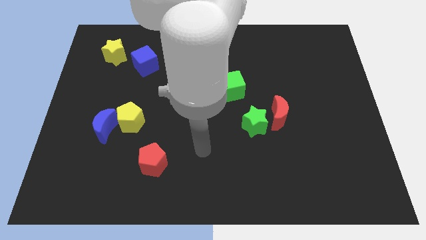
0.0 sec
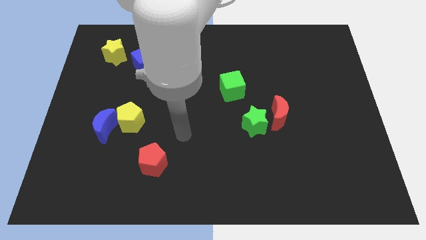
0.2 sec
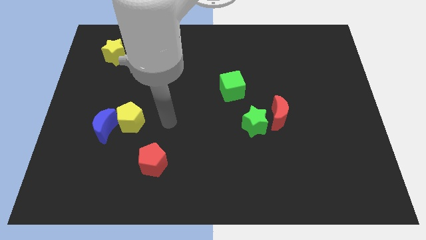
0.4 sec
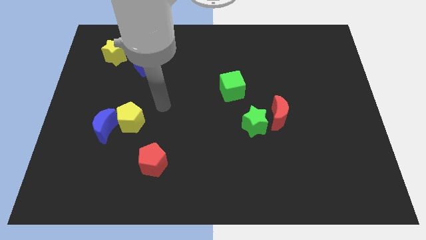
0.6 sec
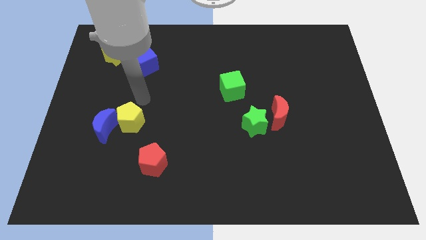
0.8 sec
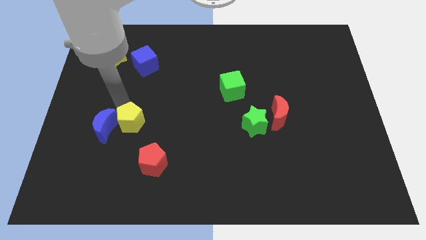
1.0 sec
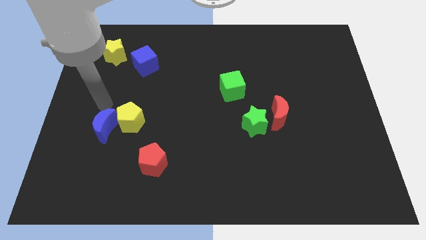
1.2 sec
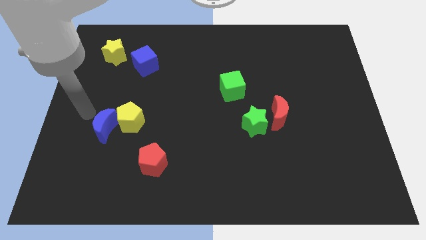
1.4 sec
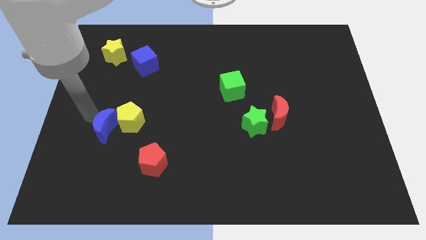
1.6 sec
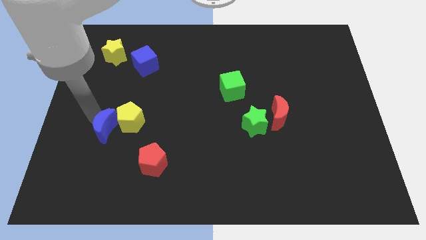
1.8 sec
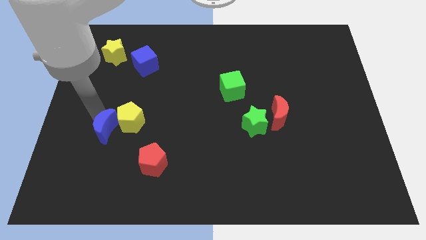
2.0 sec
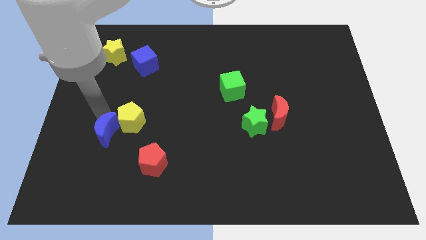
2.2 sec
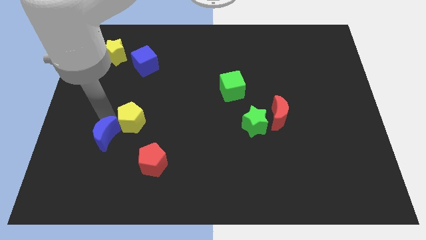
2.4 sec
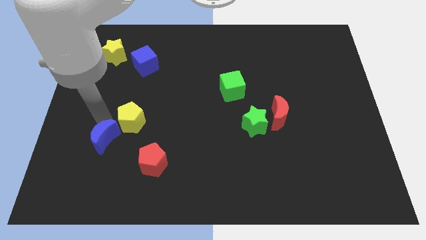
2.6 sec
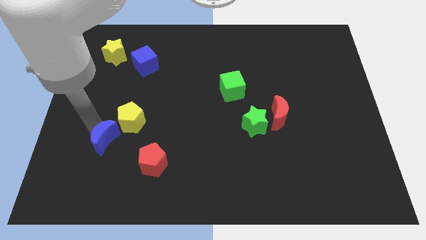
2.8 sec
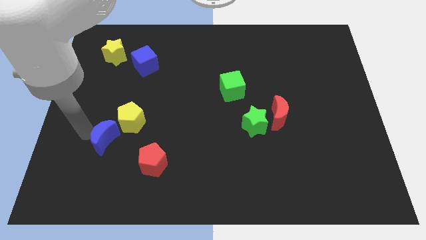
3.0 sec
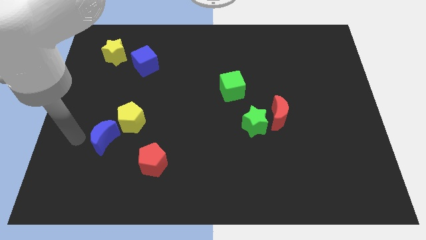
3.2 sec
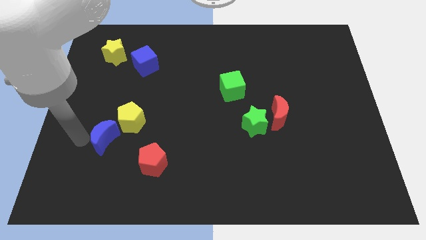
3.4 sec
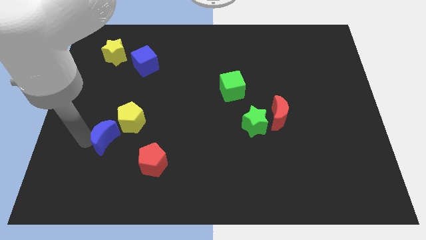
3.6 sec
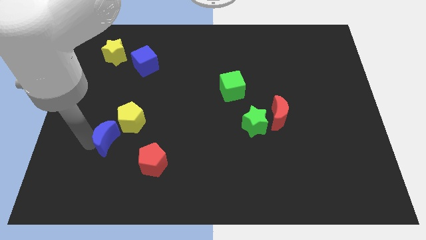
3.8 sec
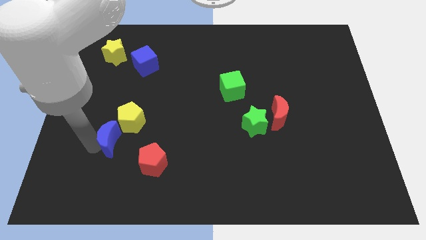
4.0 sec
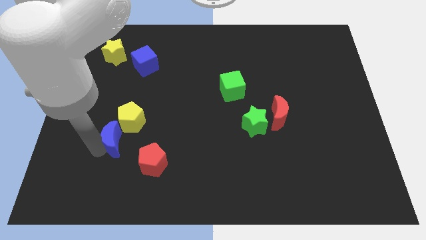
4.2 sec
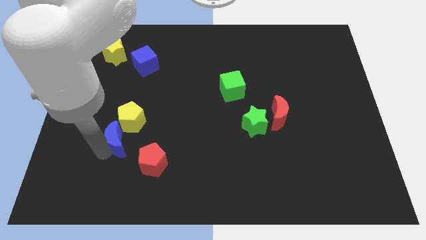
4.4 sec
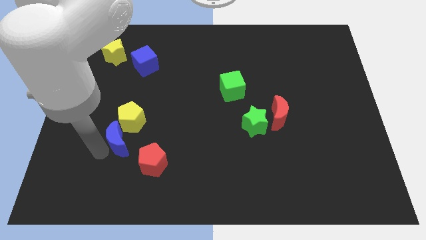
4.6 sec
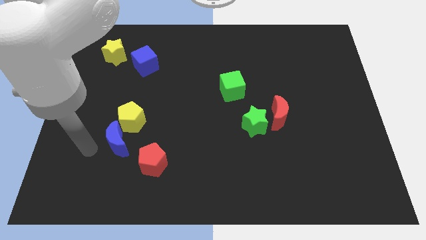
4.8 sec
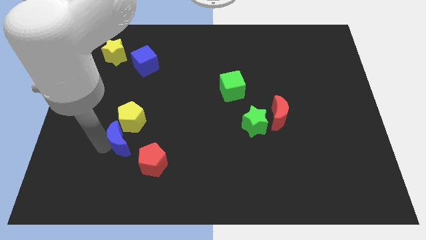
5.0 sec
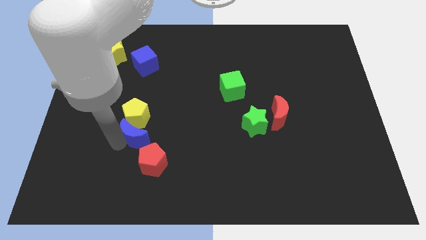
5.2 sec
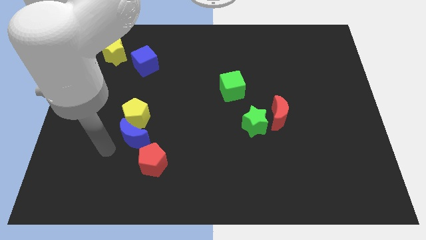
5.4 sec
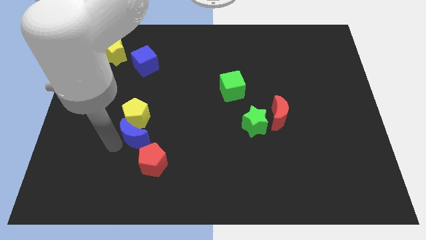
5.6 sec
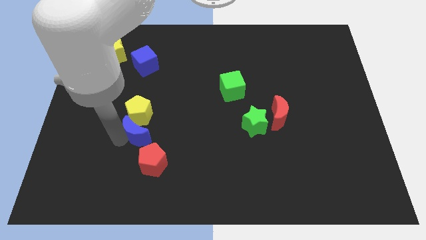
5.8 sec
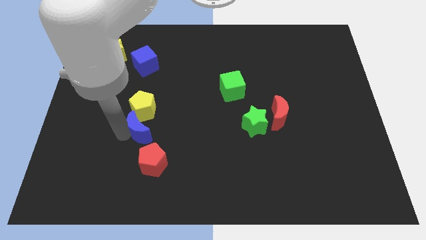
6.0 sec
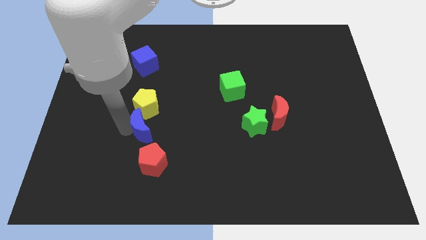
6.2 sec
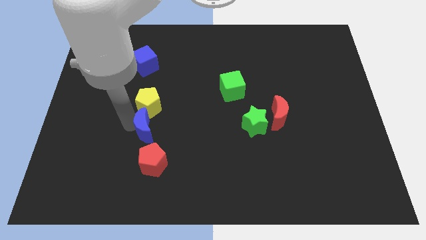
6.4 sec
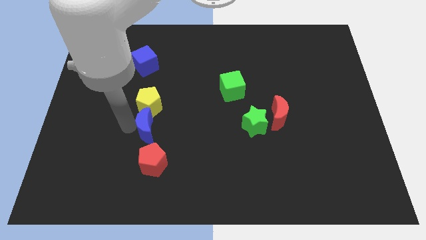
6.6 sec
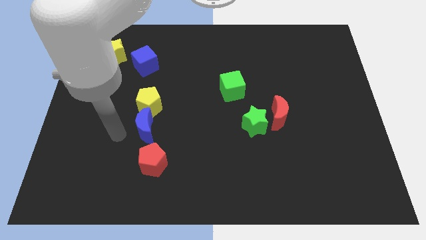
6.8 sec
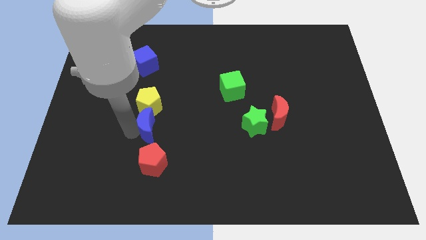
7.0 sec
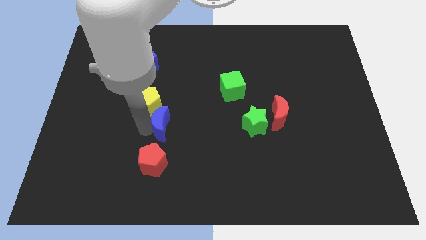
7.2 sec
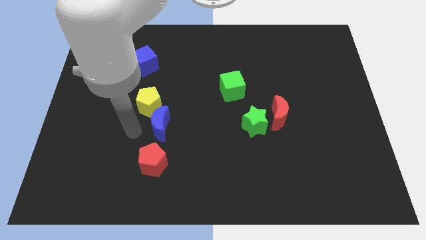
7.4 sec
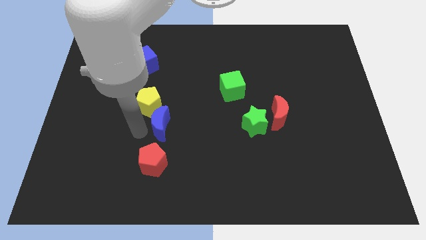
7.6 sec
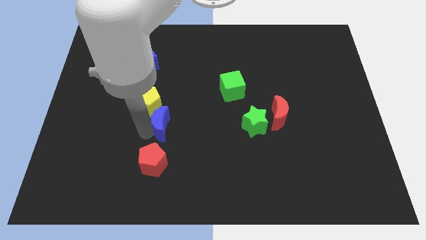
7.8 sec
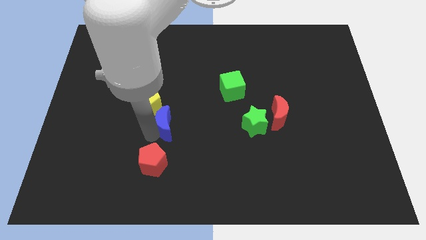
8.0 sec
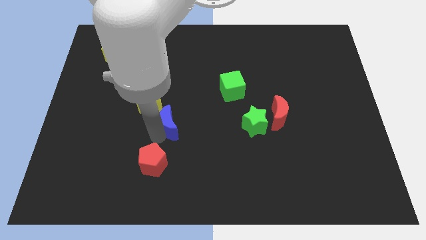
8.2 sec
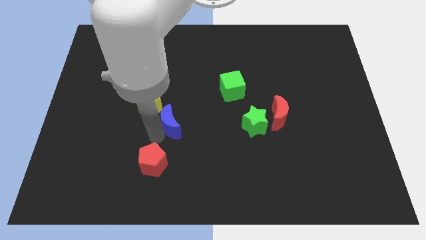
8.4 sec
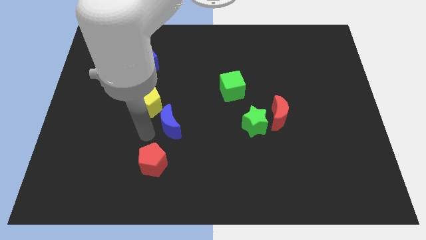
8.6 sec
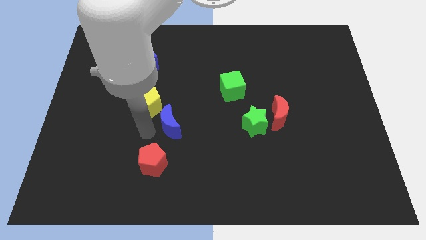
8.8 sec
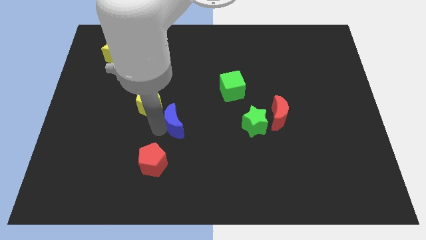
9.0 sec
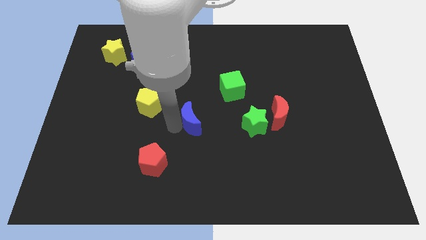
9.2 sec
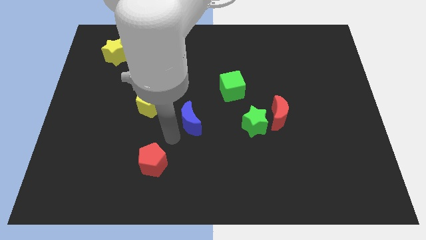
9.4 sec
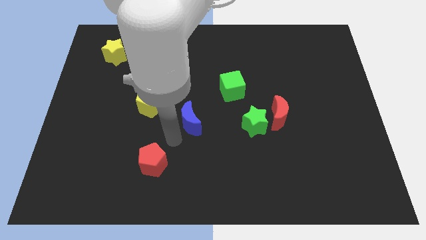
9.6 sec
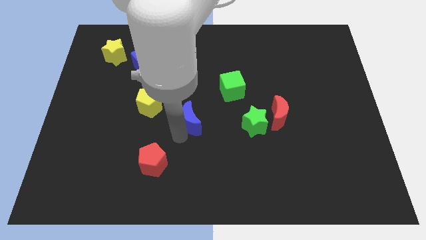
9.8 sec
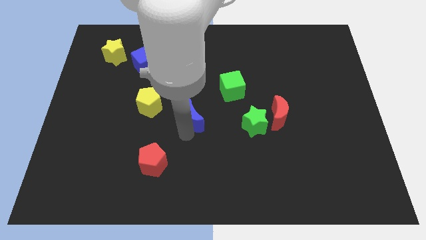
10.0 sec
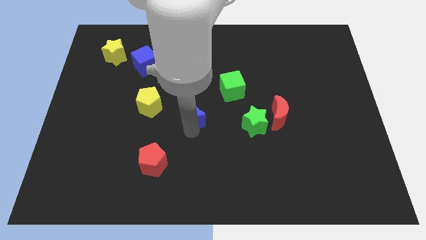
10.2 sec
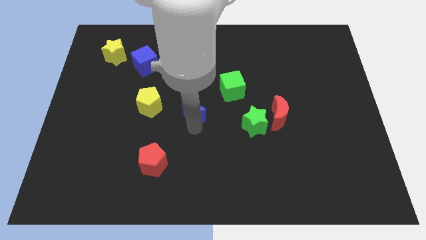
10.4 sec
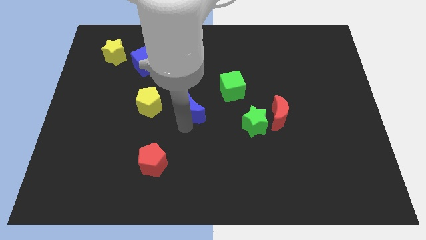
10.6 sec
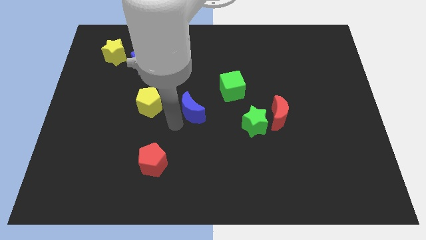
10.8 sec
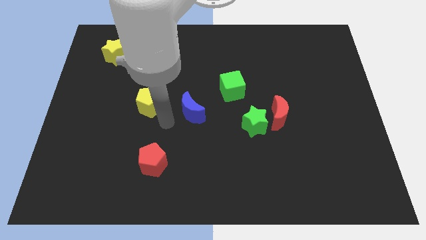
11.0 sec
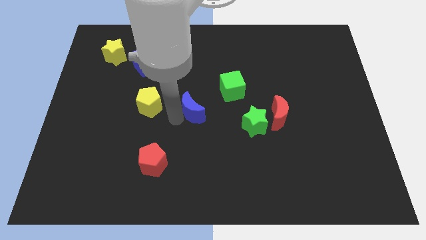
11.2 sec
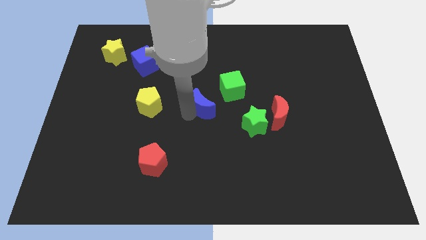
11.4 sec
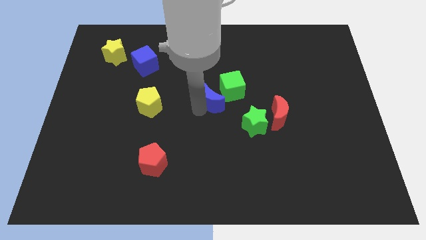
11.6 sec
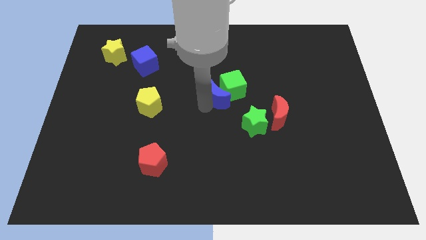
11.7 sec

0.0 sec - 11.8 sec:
push the blue moon towards the green cube

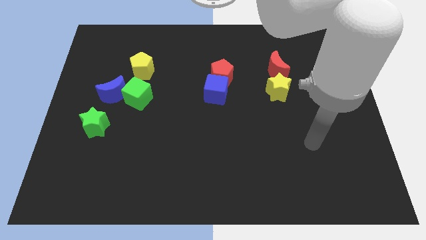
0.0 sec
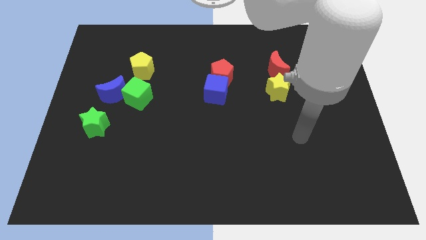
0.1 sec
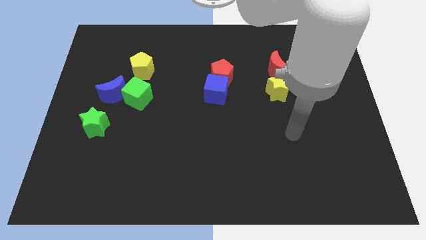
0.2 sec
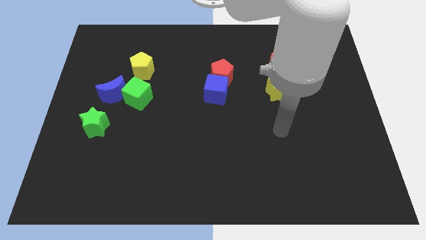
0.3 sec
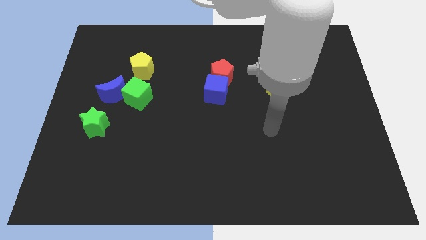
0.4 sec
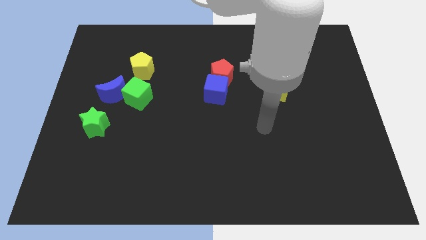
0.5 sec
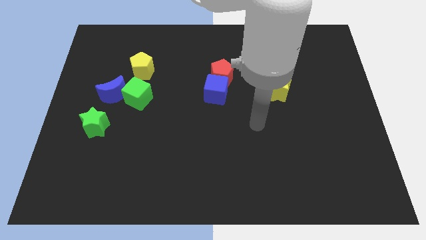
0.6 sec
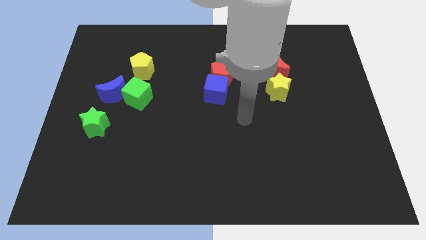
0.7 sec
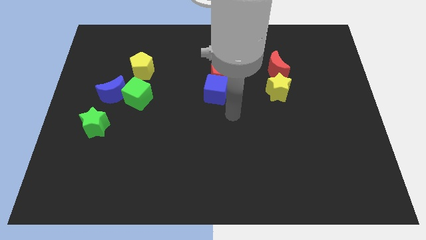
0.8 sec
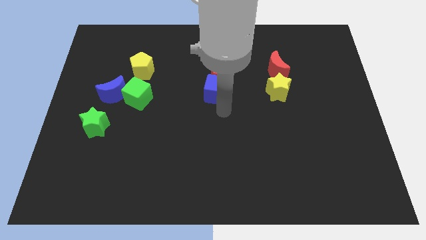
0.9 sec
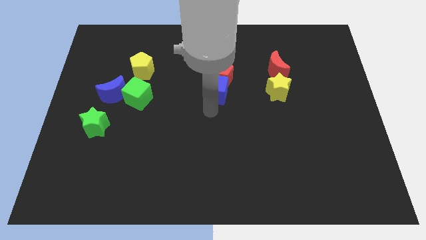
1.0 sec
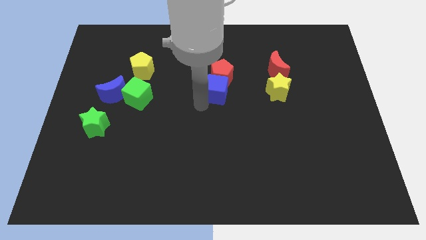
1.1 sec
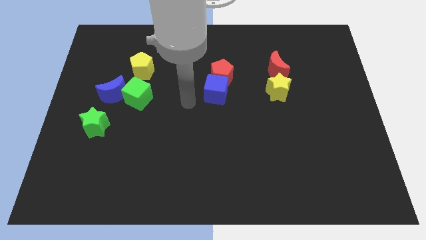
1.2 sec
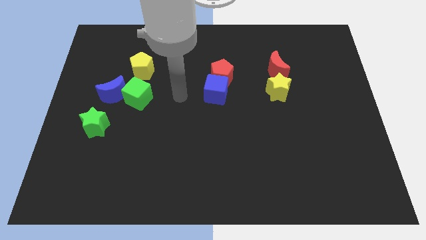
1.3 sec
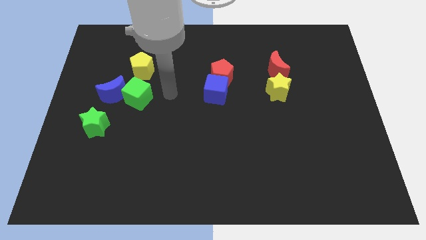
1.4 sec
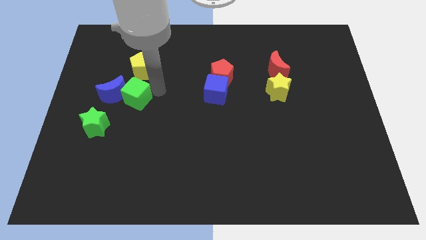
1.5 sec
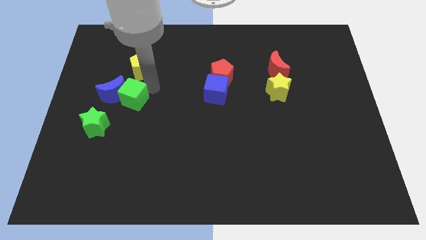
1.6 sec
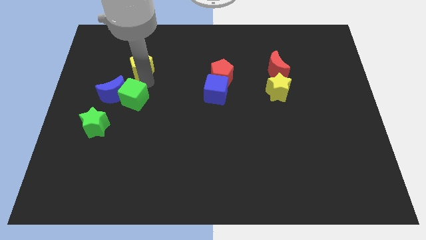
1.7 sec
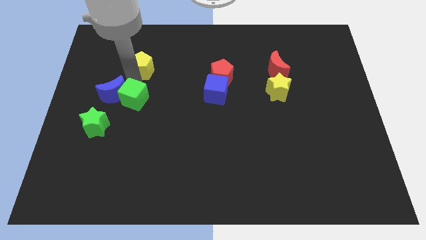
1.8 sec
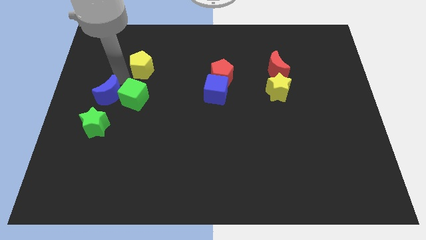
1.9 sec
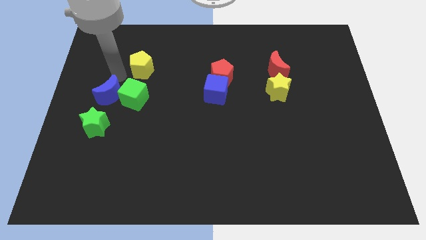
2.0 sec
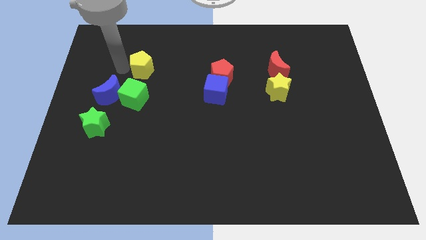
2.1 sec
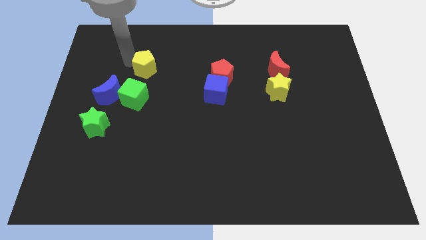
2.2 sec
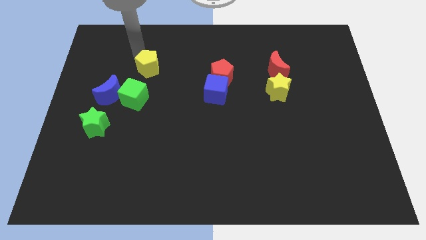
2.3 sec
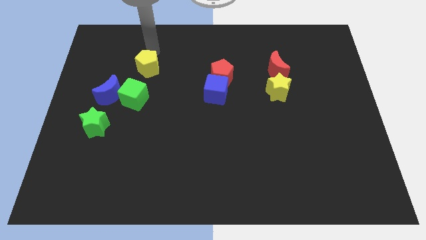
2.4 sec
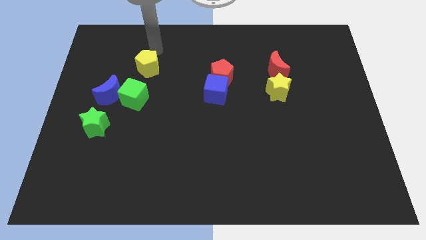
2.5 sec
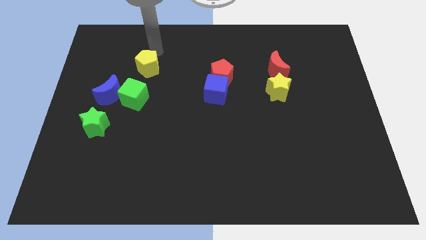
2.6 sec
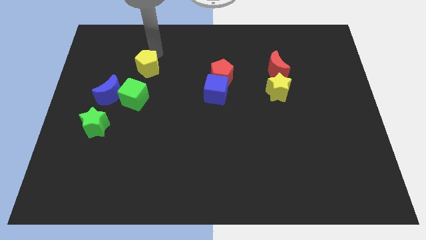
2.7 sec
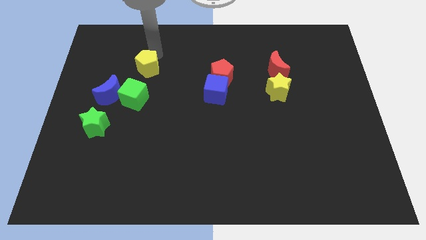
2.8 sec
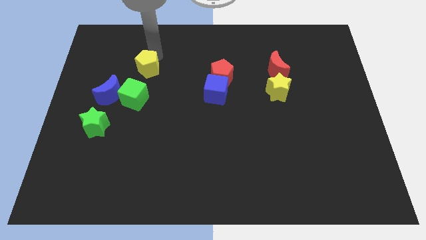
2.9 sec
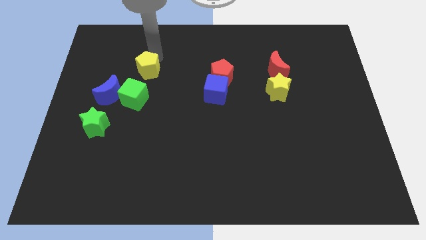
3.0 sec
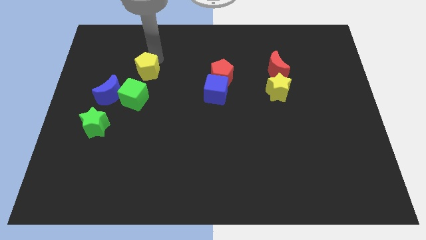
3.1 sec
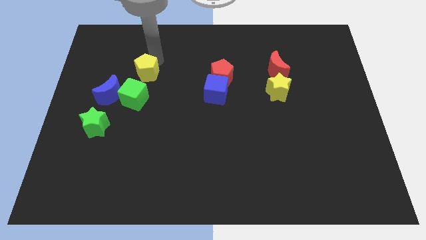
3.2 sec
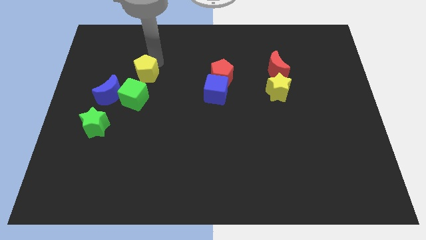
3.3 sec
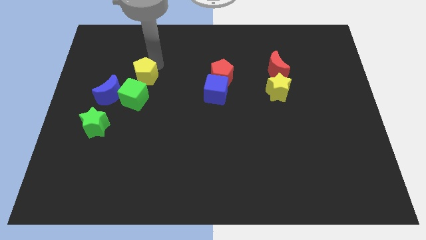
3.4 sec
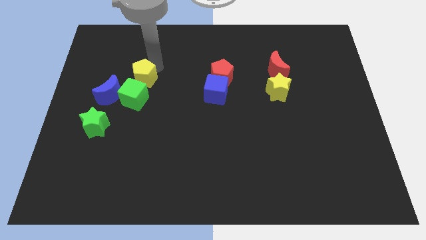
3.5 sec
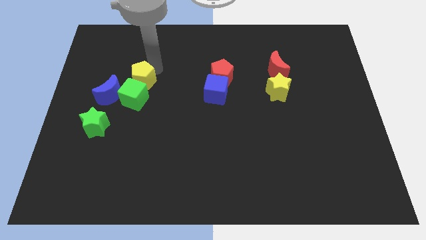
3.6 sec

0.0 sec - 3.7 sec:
push the yellow pentagon next to the green cube
